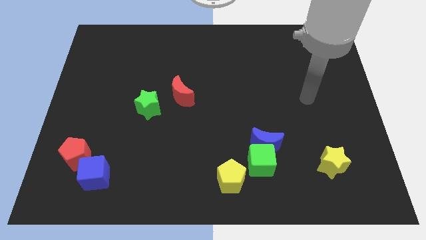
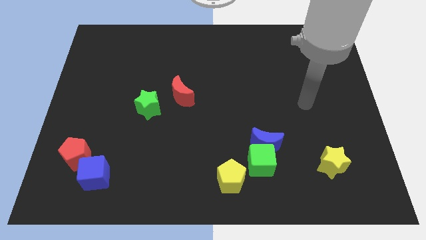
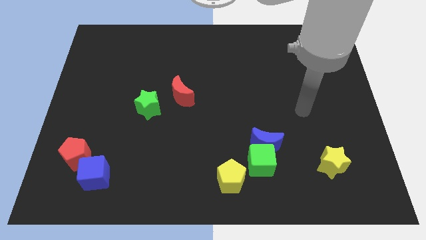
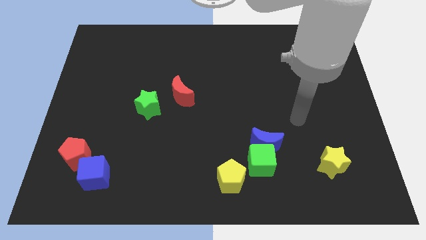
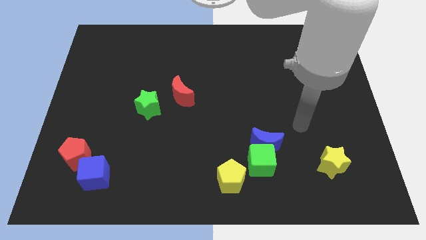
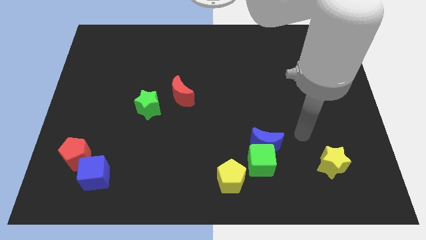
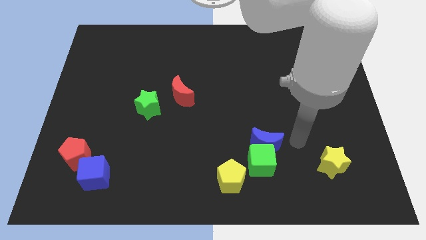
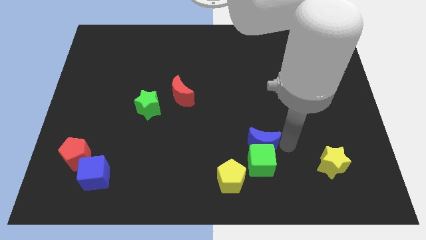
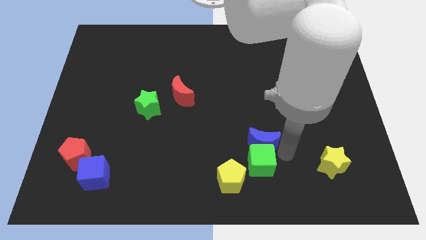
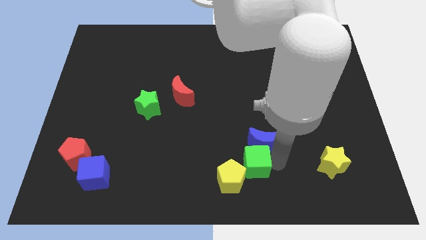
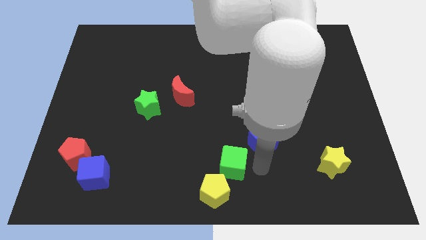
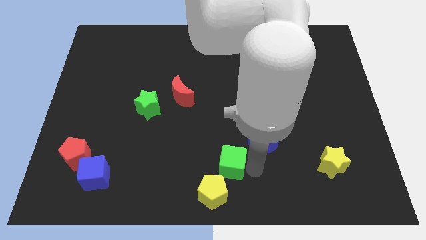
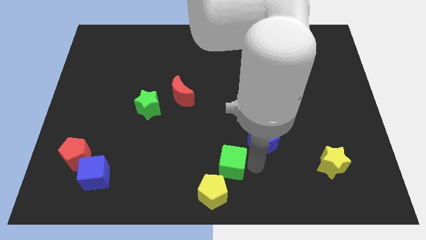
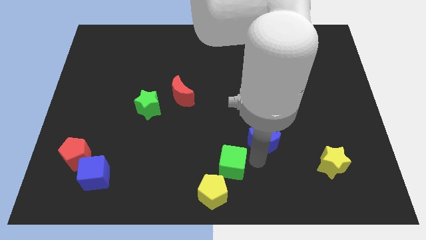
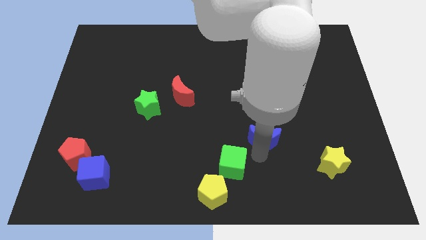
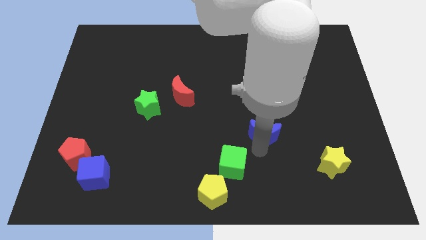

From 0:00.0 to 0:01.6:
separate the blue moon from the green cube

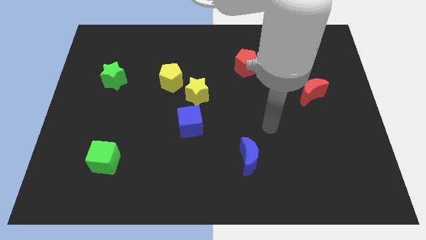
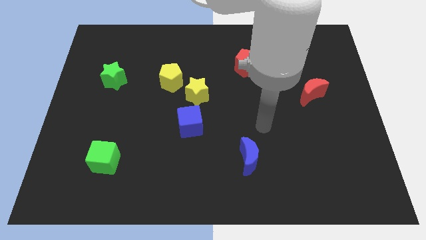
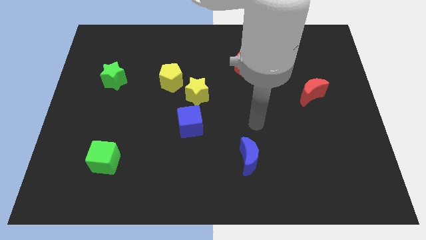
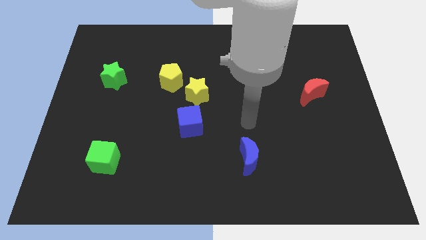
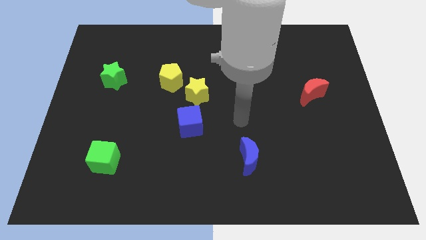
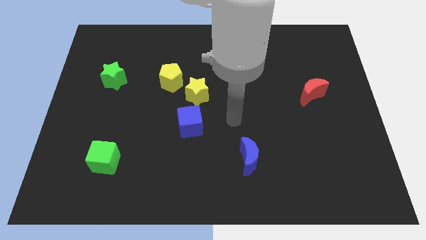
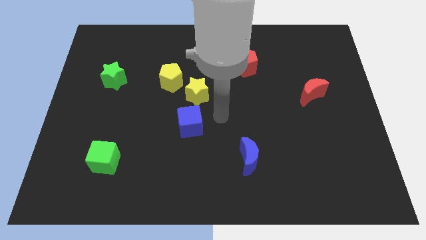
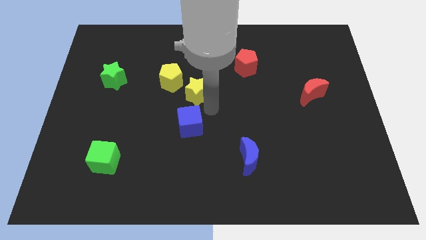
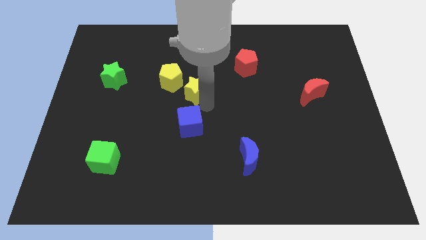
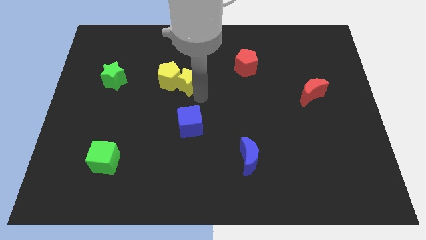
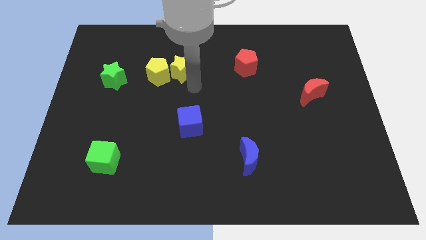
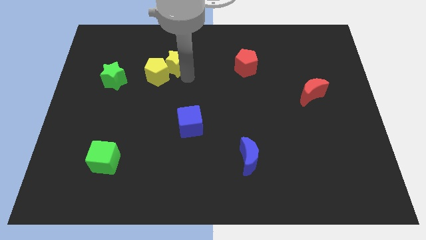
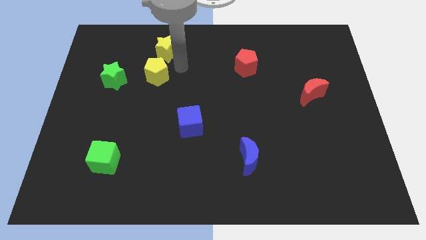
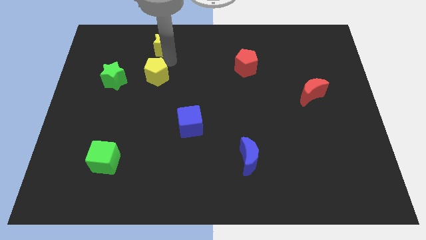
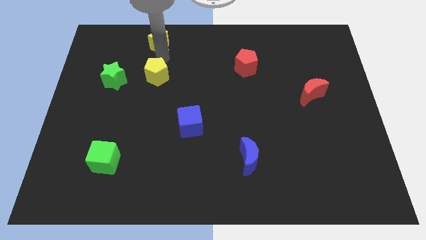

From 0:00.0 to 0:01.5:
separate the yellow pentagon from the yellow star

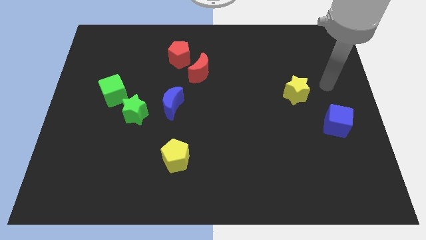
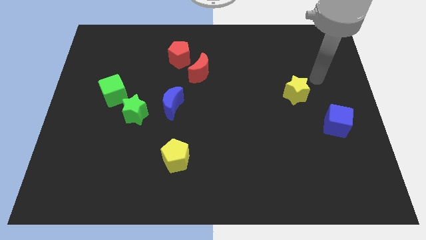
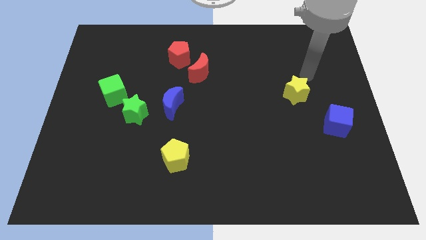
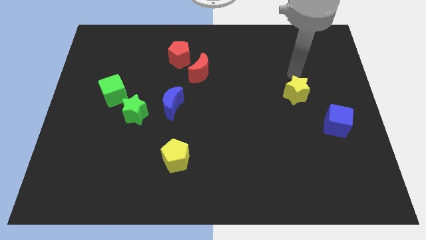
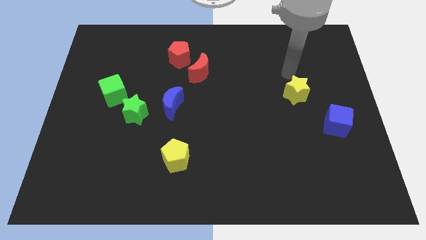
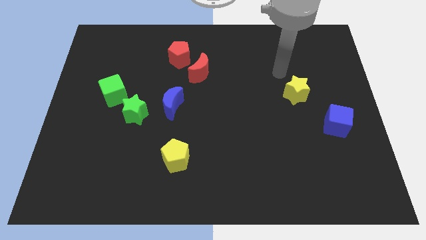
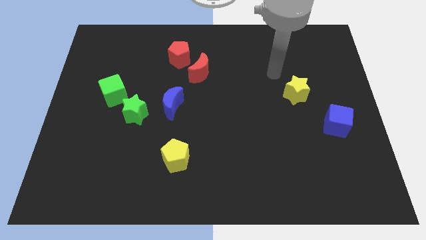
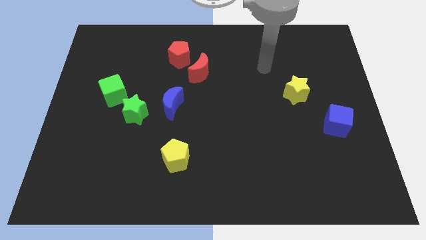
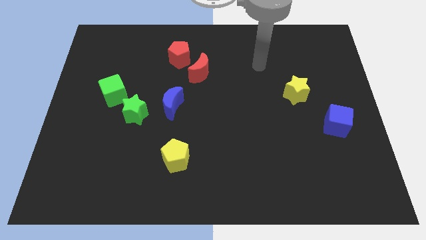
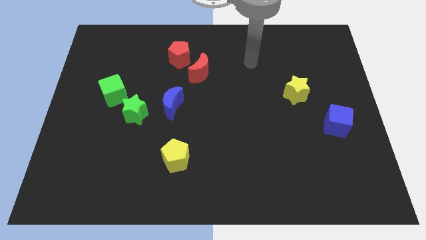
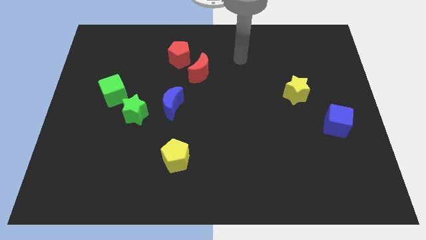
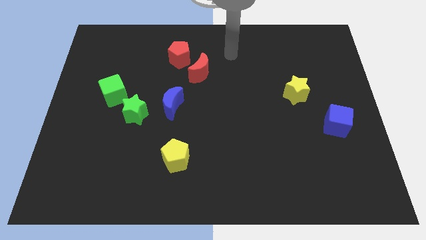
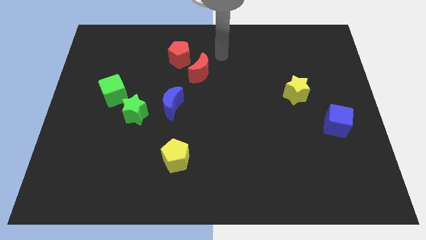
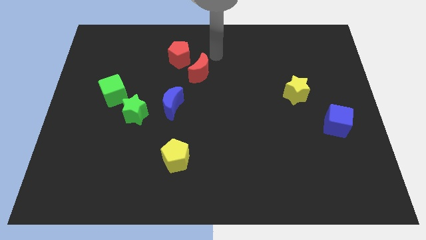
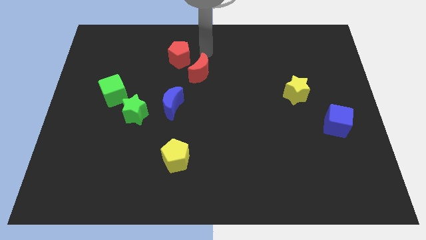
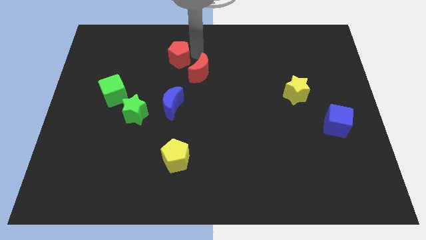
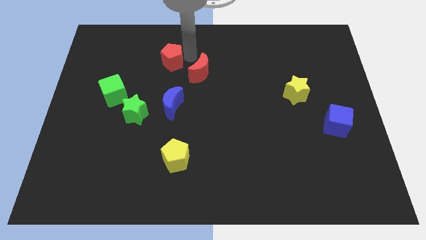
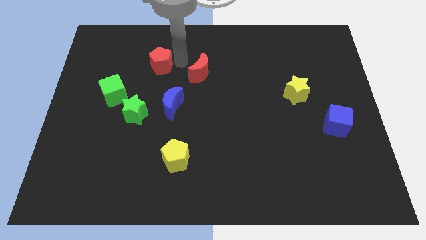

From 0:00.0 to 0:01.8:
pull the red moon apart from the red pentagon

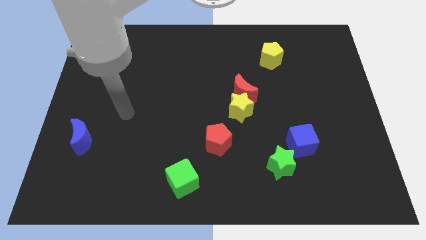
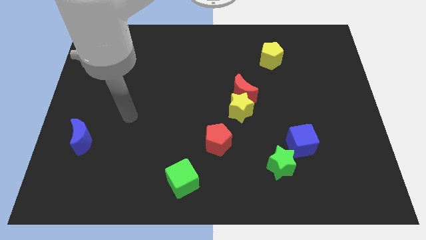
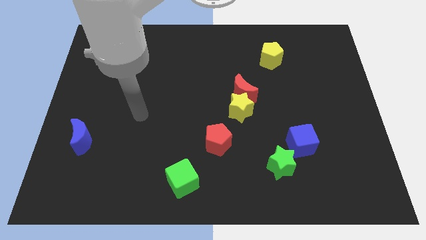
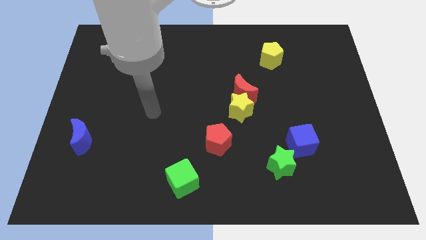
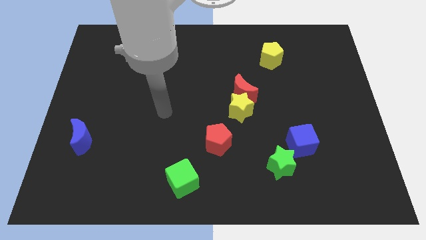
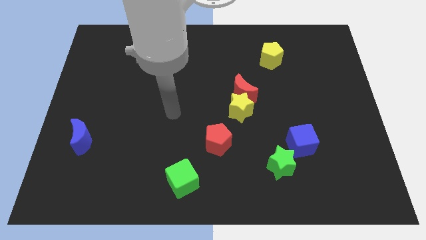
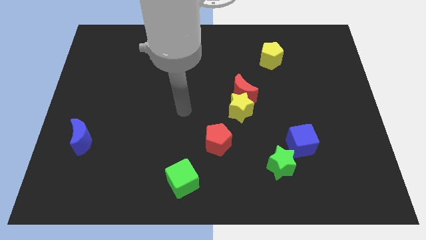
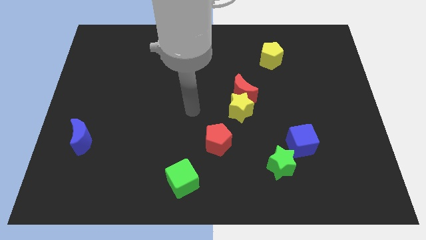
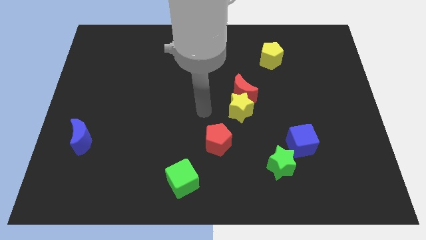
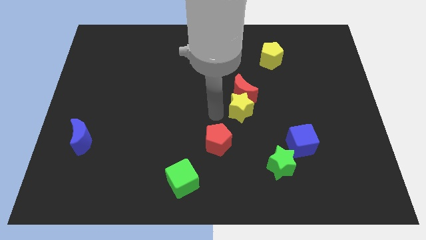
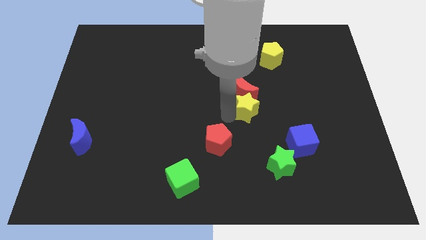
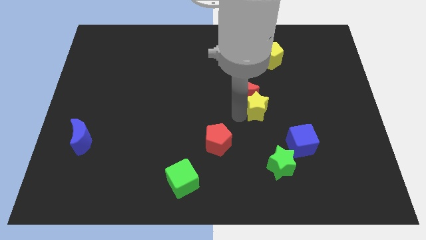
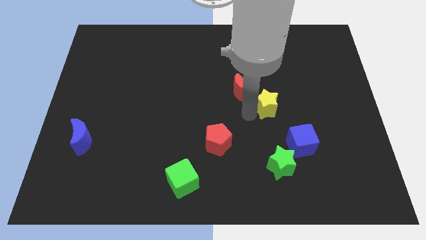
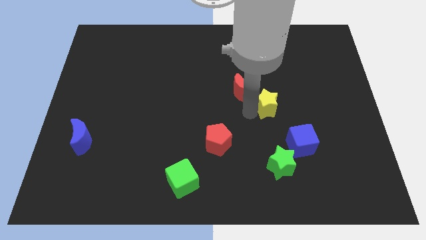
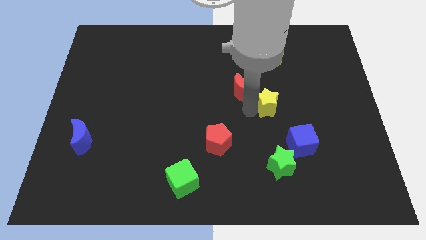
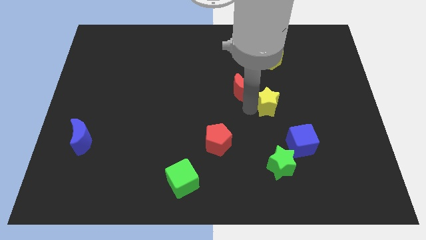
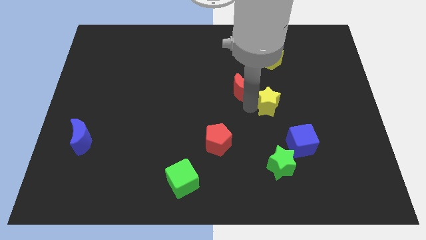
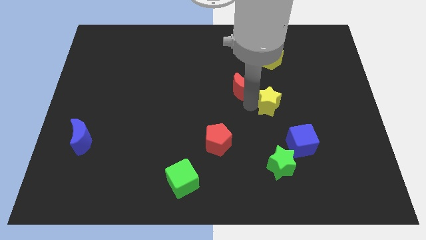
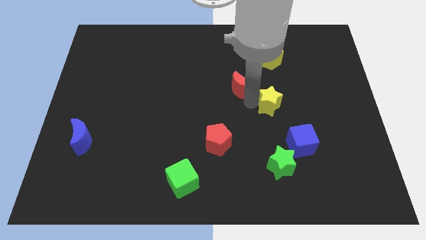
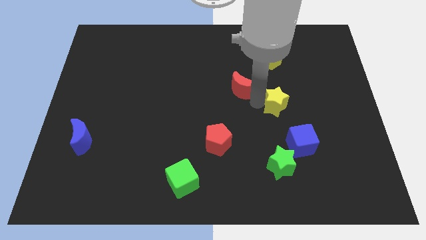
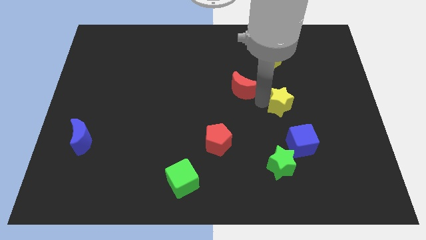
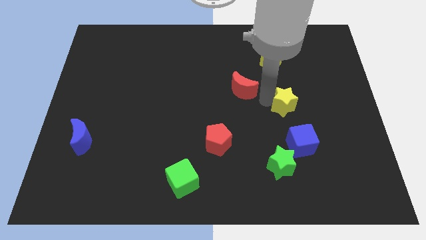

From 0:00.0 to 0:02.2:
pull the red moon apart from the yellow star

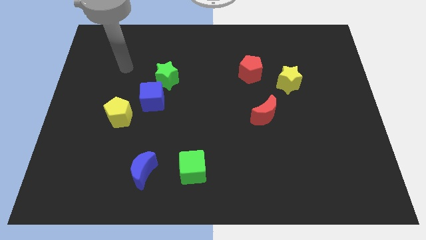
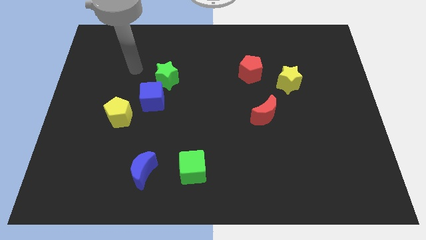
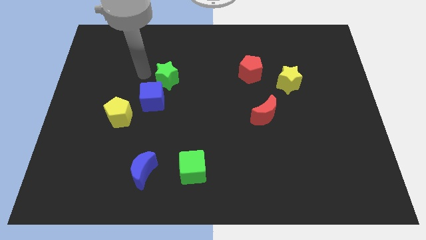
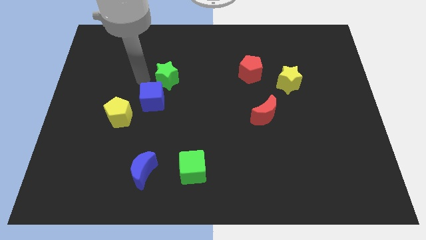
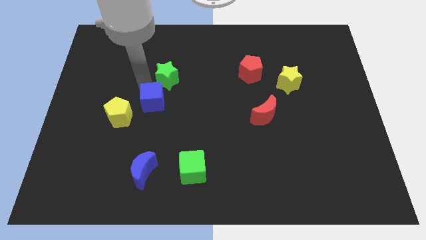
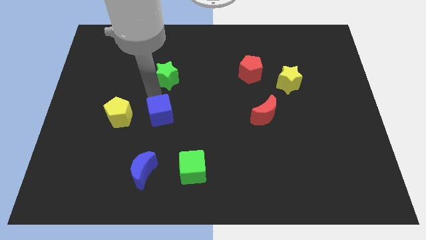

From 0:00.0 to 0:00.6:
separate the green star from the blue cube

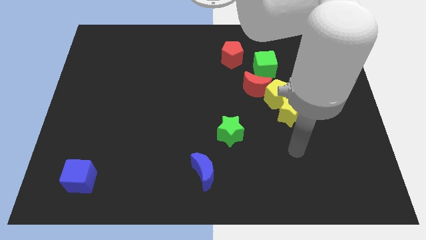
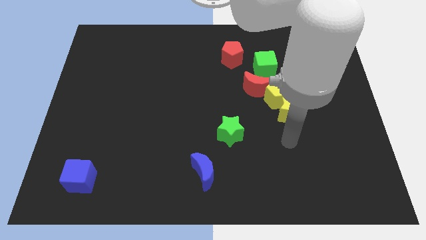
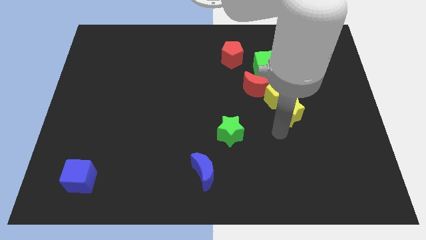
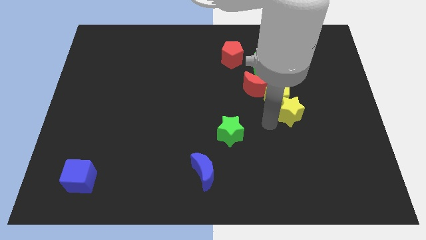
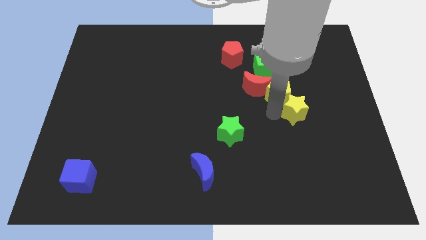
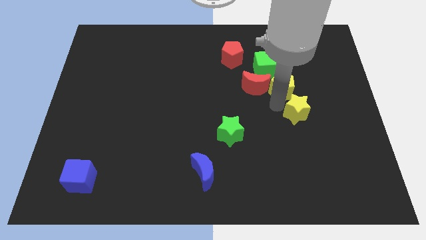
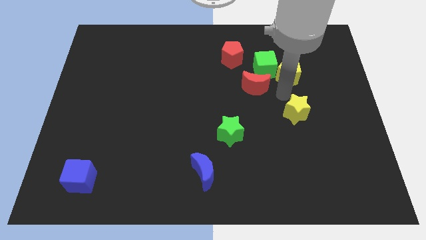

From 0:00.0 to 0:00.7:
move the yellow star away from the yellow pentagon

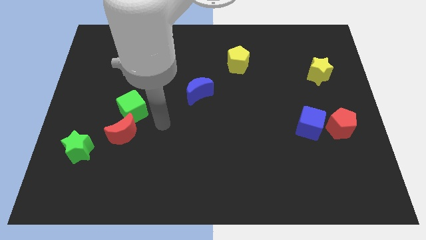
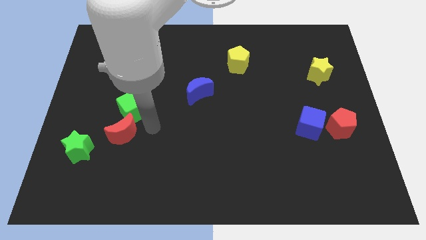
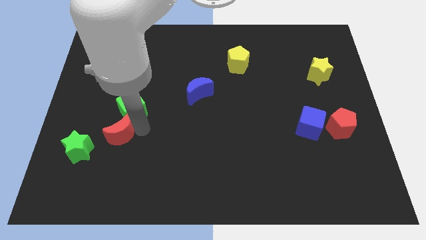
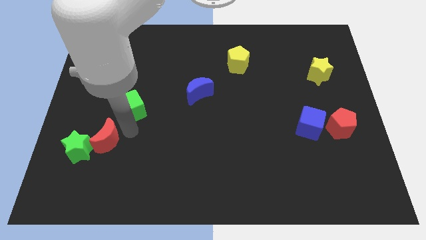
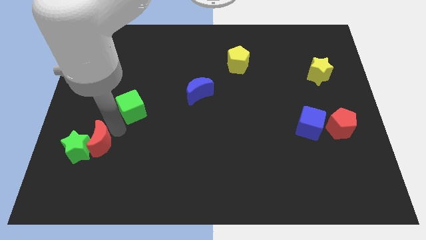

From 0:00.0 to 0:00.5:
move the green cube away from the red moon

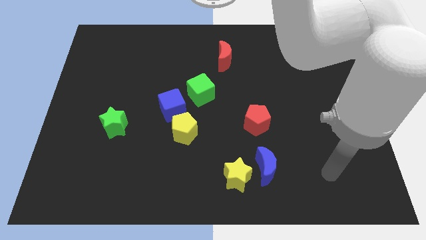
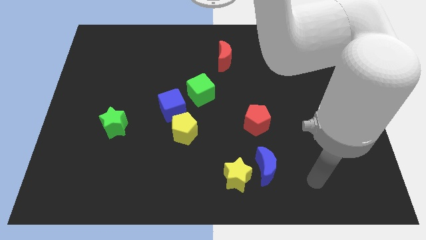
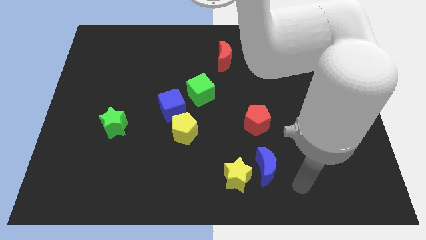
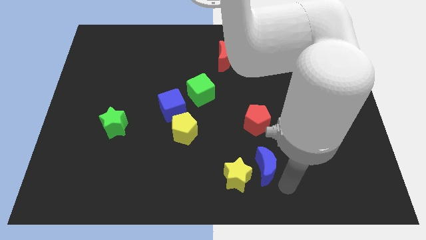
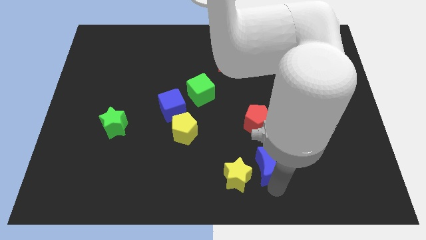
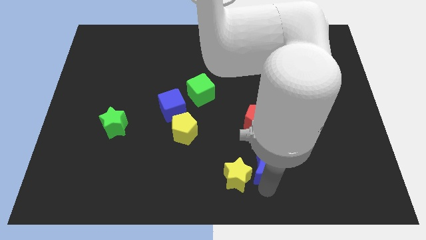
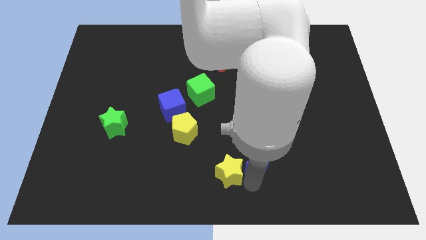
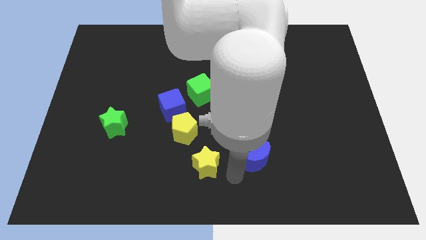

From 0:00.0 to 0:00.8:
separate the blue moon from the yellow star
